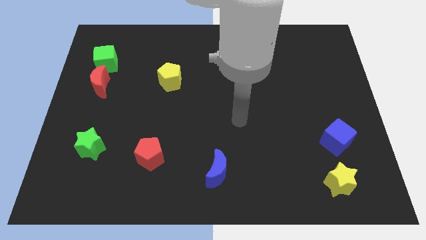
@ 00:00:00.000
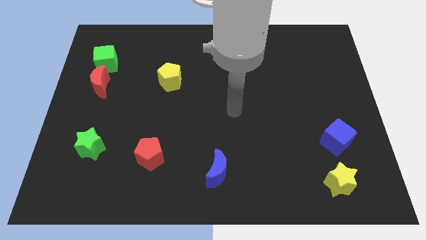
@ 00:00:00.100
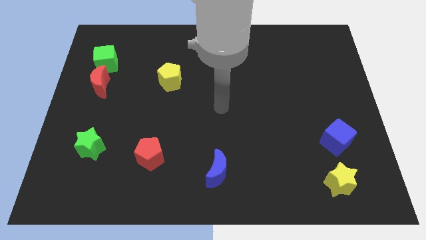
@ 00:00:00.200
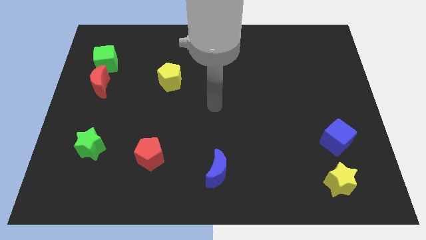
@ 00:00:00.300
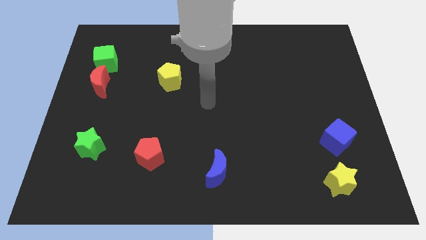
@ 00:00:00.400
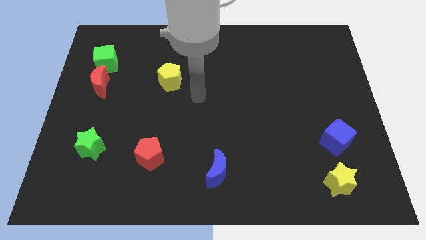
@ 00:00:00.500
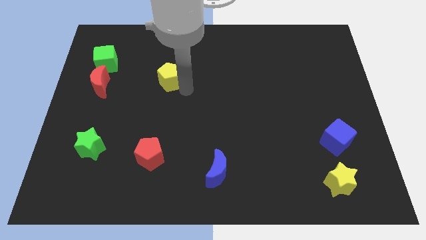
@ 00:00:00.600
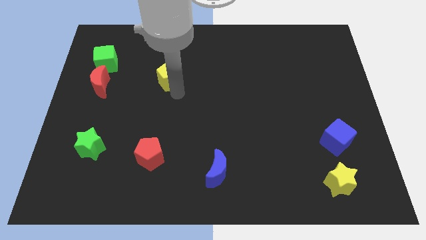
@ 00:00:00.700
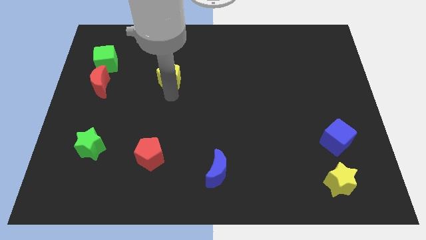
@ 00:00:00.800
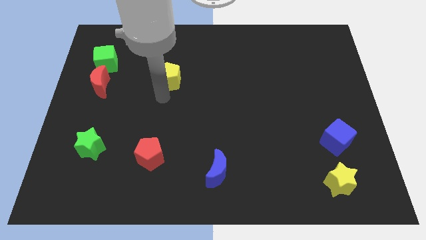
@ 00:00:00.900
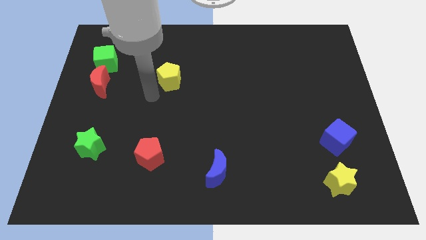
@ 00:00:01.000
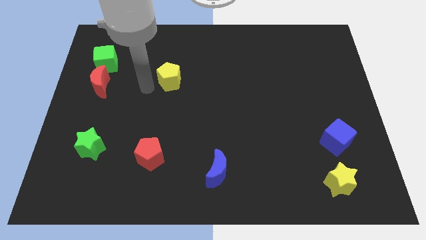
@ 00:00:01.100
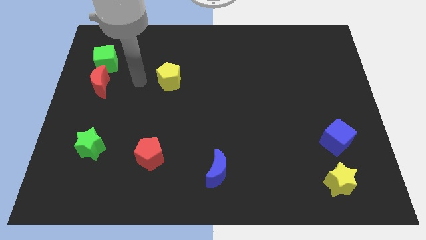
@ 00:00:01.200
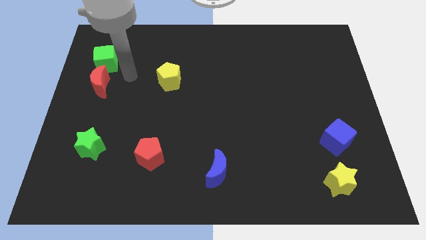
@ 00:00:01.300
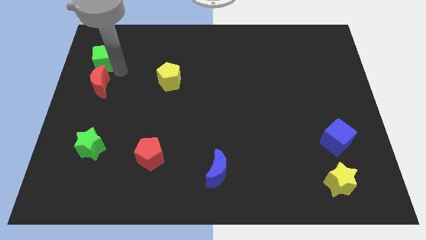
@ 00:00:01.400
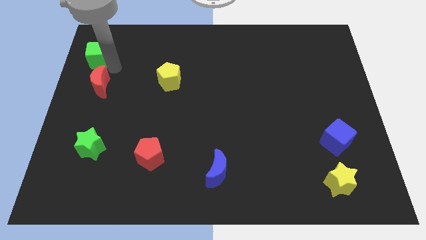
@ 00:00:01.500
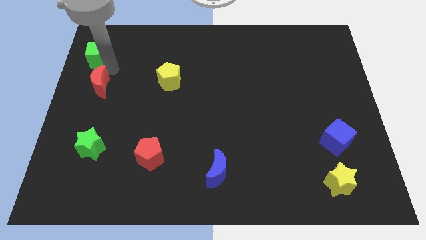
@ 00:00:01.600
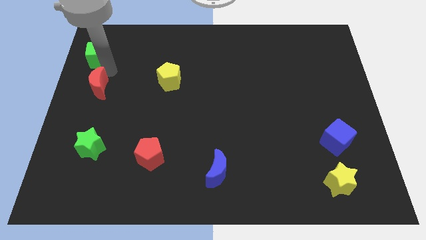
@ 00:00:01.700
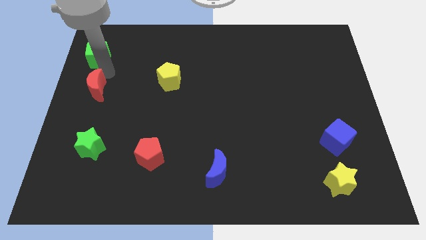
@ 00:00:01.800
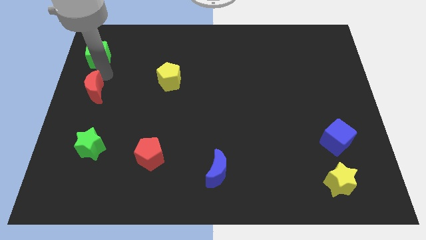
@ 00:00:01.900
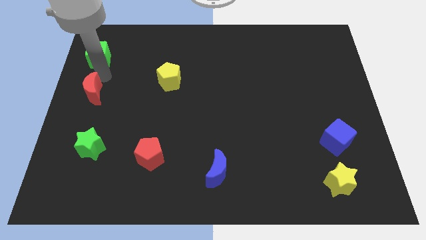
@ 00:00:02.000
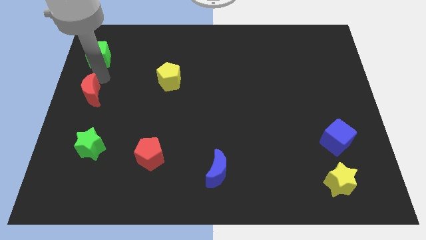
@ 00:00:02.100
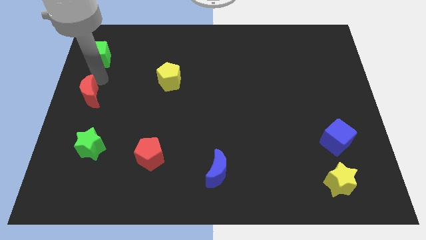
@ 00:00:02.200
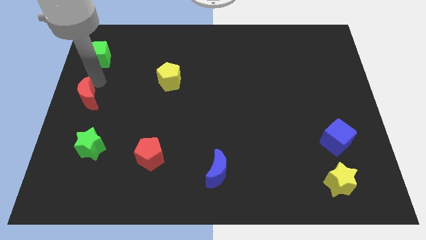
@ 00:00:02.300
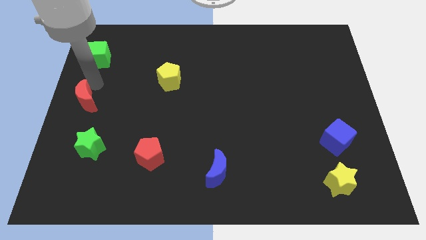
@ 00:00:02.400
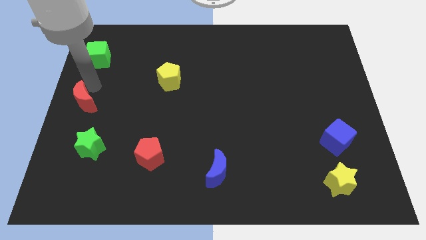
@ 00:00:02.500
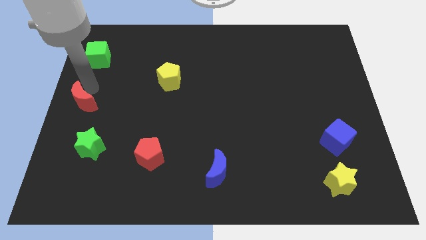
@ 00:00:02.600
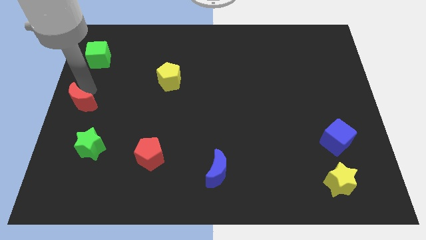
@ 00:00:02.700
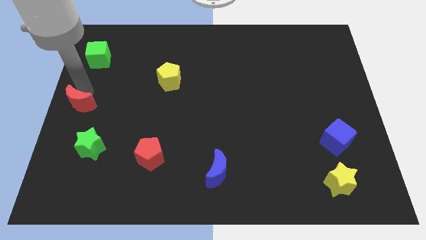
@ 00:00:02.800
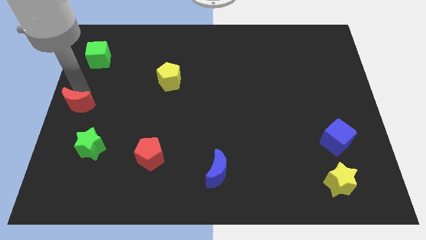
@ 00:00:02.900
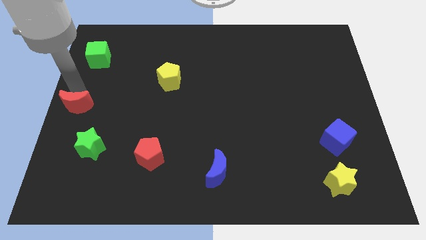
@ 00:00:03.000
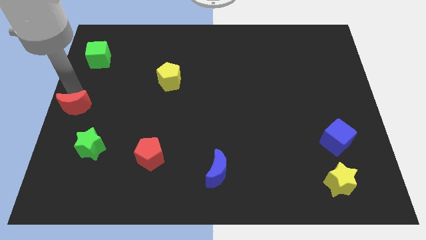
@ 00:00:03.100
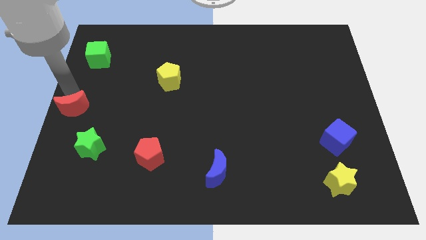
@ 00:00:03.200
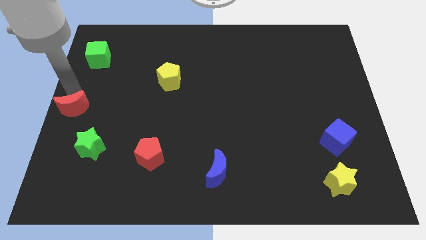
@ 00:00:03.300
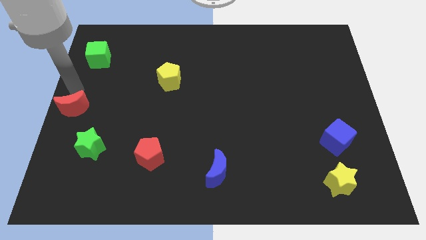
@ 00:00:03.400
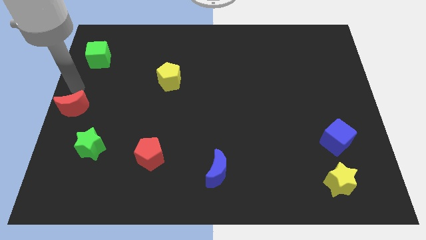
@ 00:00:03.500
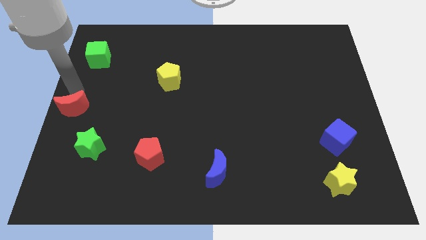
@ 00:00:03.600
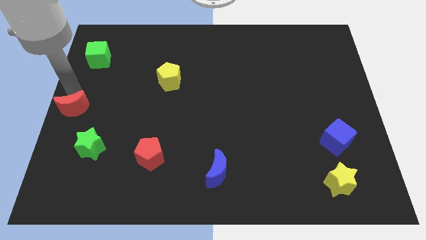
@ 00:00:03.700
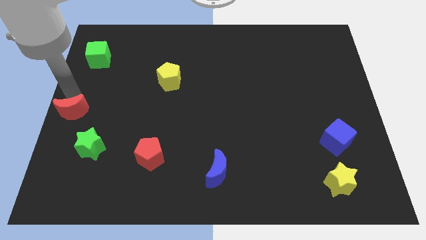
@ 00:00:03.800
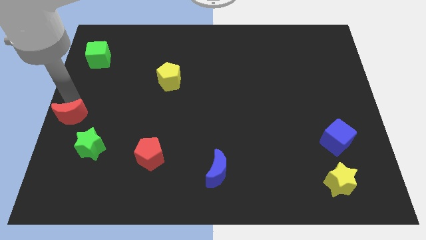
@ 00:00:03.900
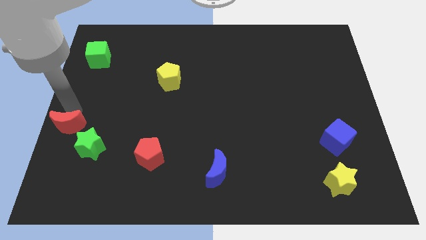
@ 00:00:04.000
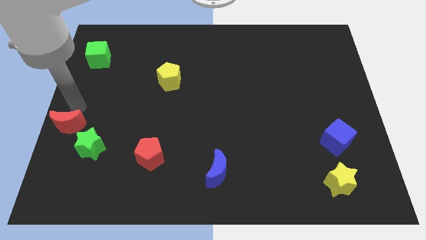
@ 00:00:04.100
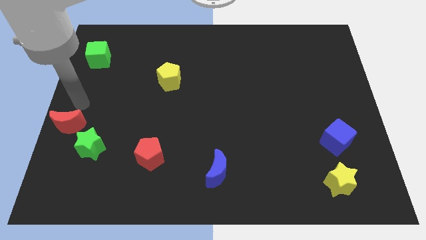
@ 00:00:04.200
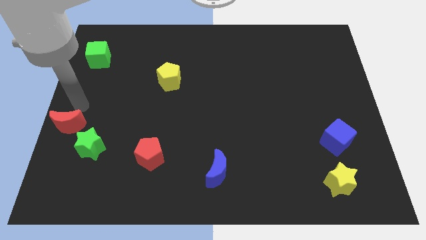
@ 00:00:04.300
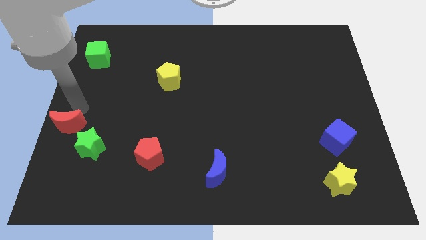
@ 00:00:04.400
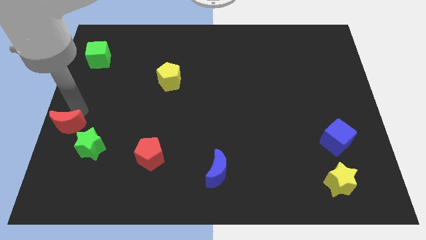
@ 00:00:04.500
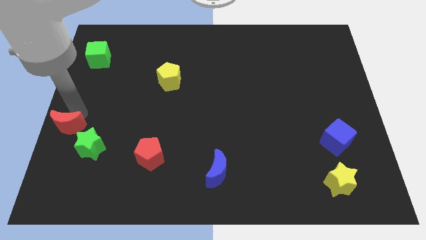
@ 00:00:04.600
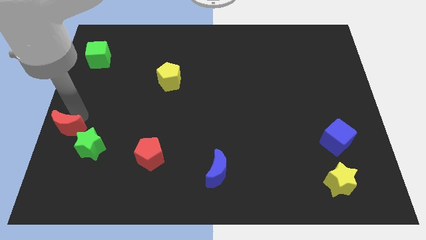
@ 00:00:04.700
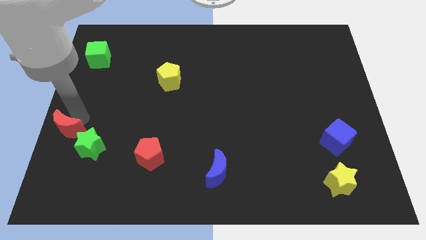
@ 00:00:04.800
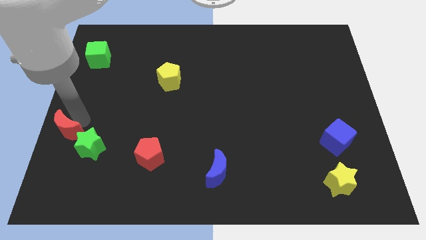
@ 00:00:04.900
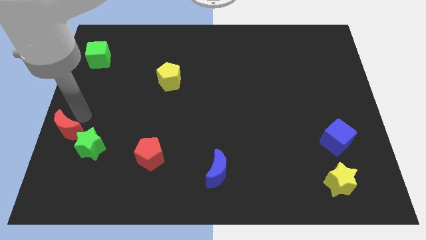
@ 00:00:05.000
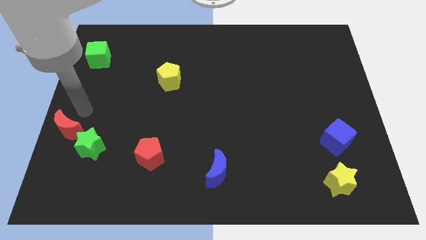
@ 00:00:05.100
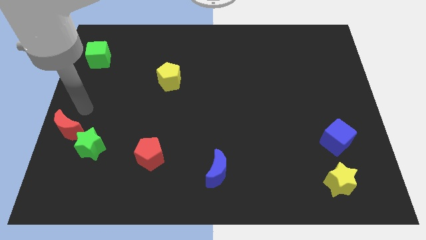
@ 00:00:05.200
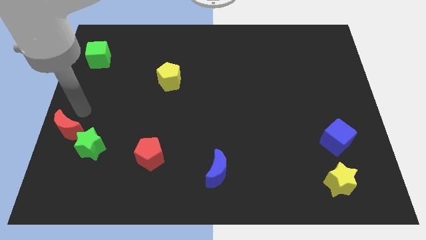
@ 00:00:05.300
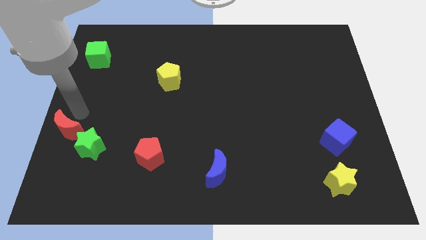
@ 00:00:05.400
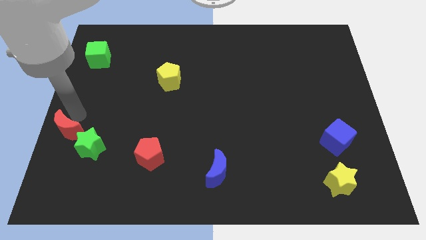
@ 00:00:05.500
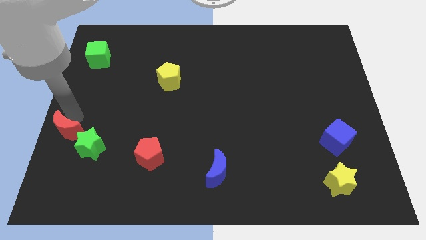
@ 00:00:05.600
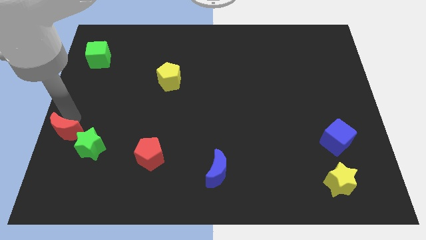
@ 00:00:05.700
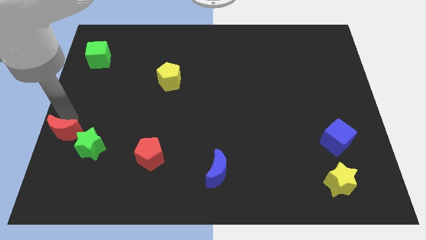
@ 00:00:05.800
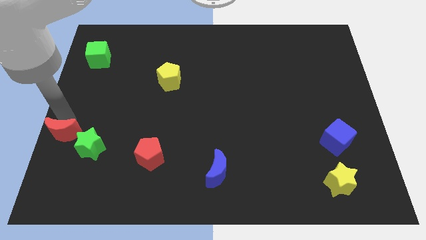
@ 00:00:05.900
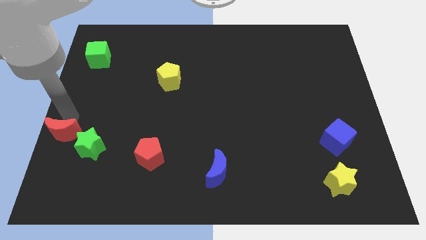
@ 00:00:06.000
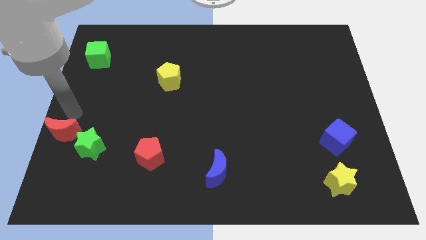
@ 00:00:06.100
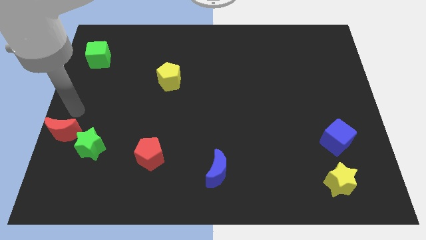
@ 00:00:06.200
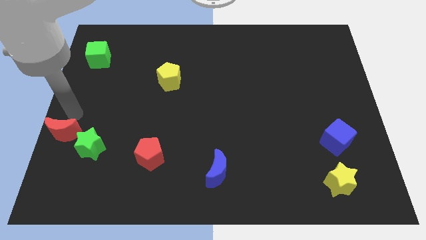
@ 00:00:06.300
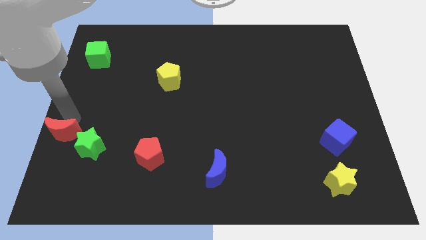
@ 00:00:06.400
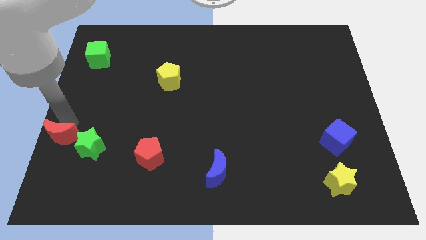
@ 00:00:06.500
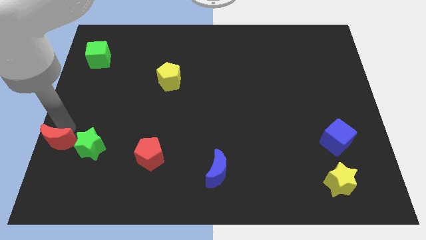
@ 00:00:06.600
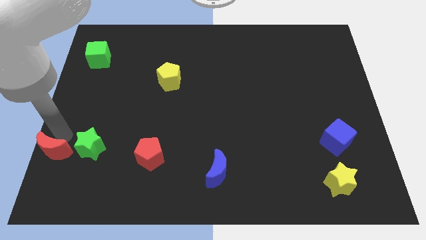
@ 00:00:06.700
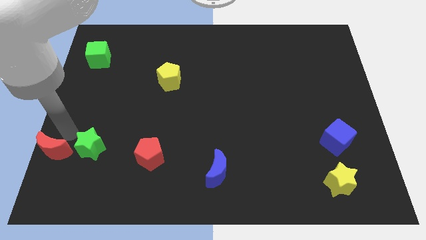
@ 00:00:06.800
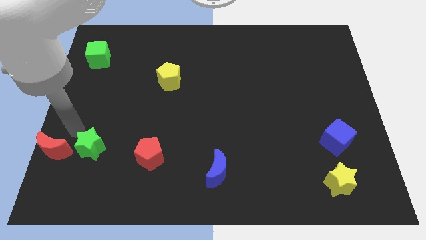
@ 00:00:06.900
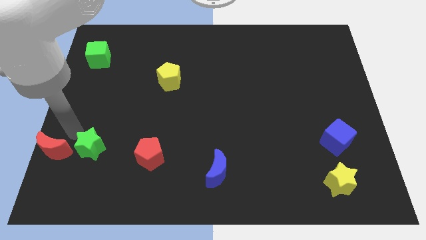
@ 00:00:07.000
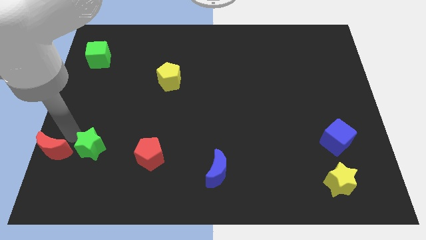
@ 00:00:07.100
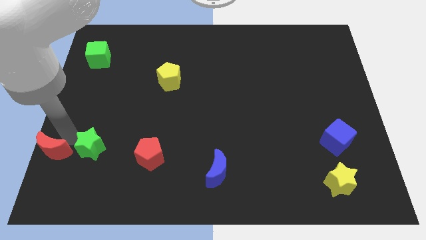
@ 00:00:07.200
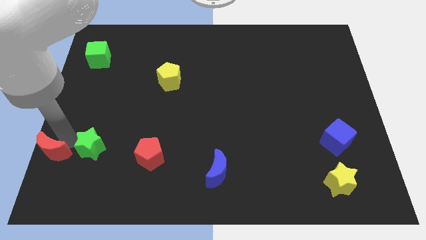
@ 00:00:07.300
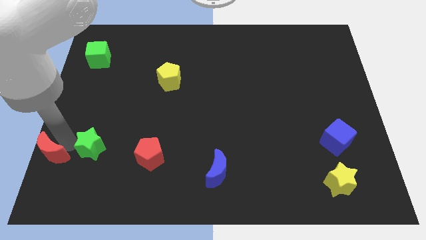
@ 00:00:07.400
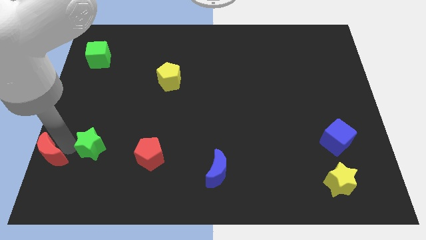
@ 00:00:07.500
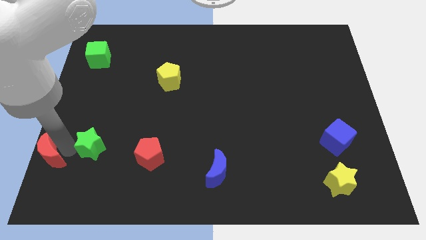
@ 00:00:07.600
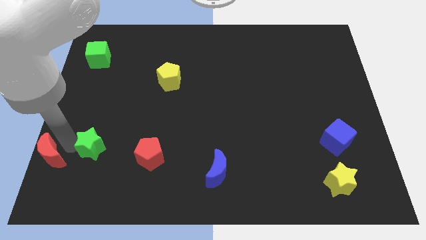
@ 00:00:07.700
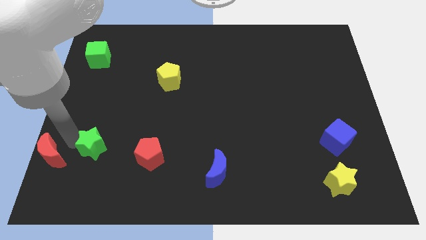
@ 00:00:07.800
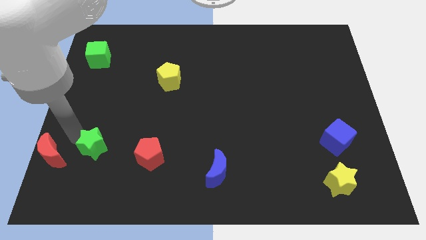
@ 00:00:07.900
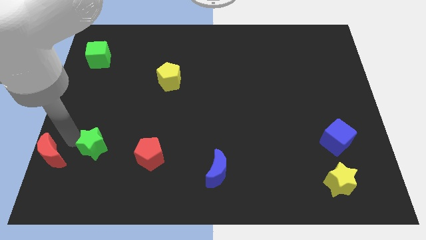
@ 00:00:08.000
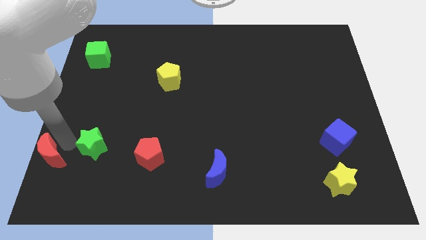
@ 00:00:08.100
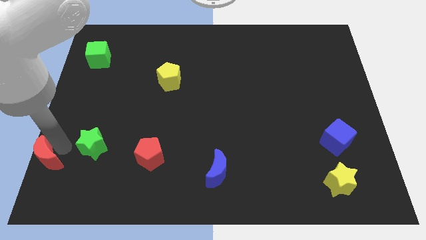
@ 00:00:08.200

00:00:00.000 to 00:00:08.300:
move the red moon to the bottom left
